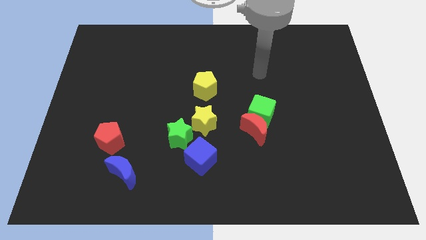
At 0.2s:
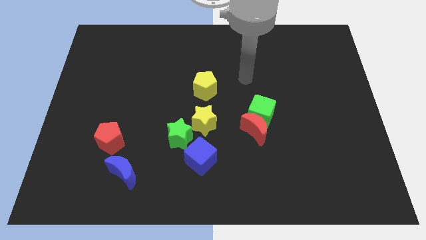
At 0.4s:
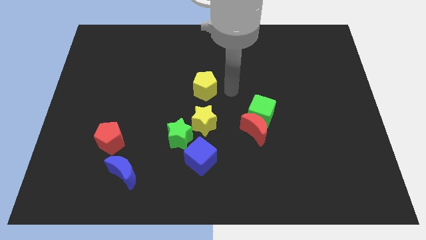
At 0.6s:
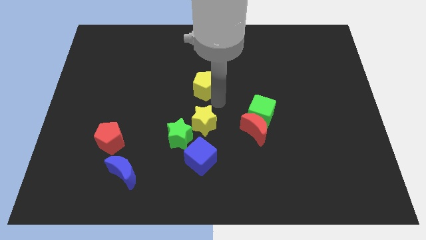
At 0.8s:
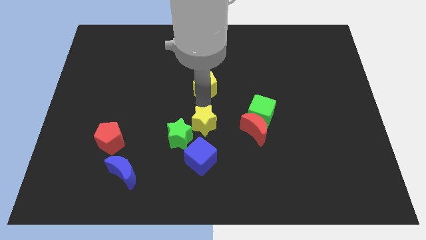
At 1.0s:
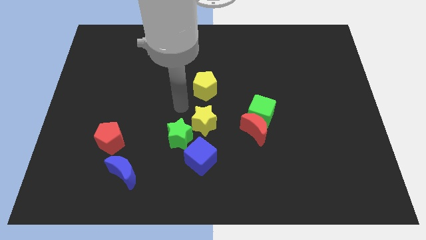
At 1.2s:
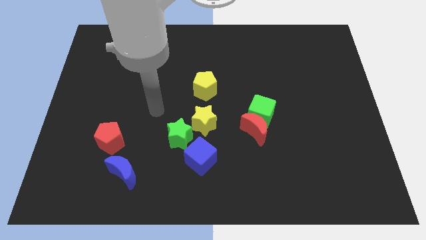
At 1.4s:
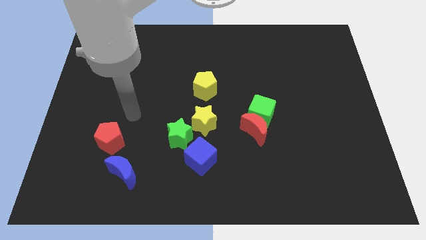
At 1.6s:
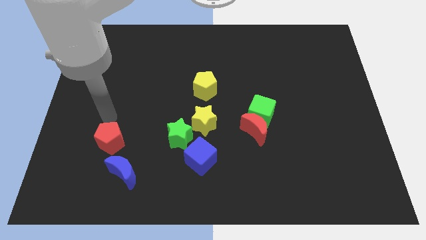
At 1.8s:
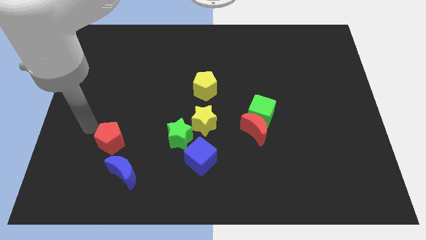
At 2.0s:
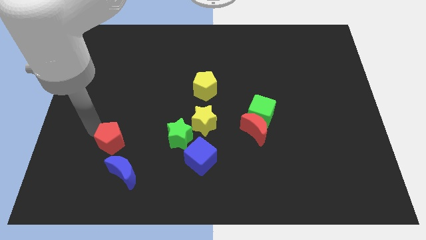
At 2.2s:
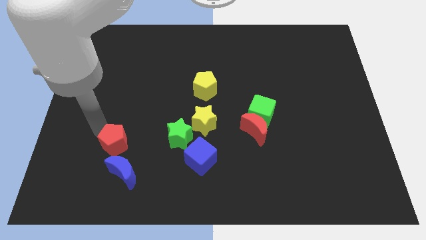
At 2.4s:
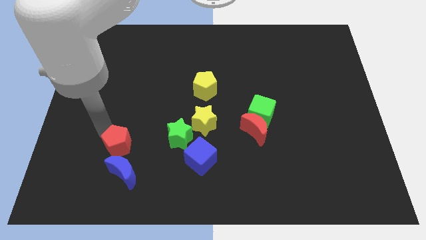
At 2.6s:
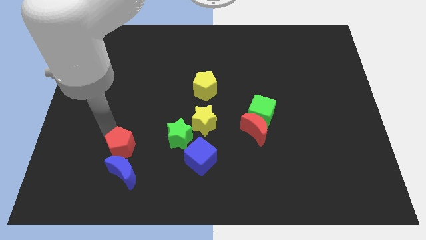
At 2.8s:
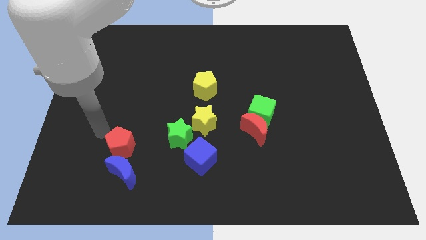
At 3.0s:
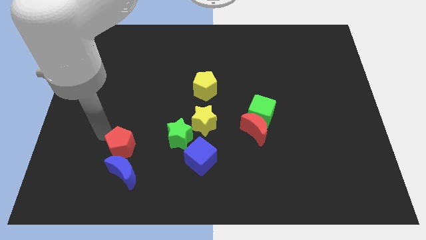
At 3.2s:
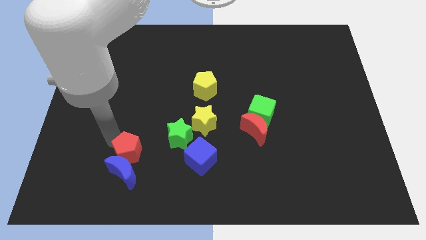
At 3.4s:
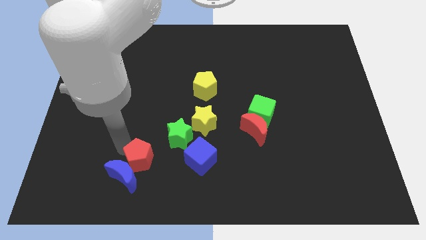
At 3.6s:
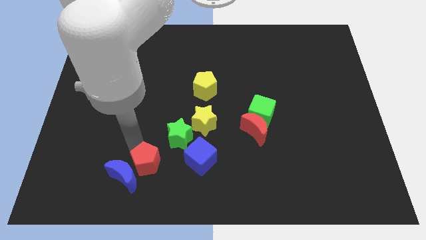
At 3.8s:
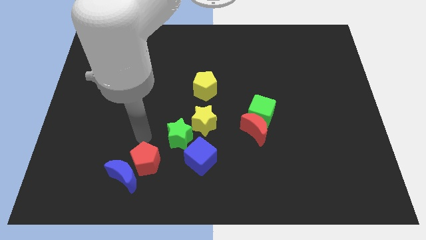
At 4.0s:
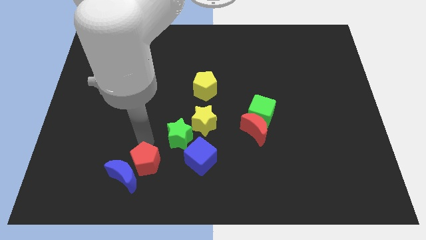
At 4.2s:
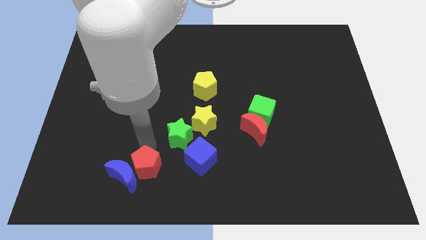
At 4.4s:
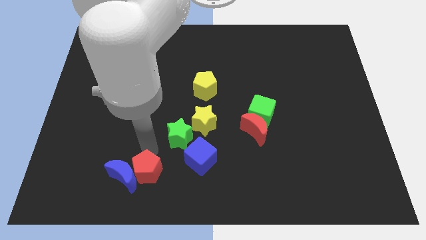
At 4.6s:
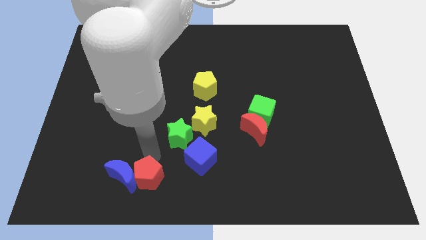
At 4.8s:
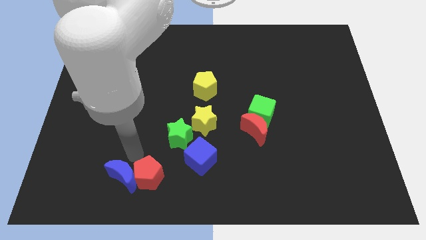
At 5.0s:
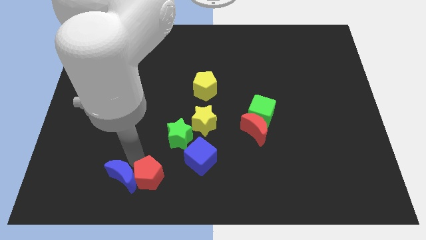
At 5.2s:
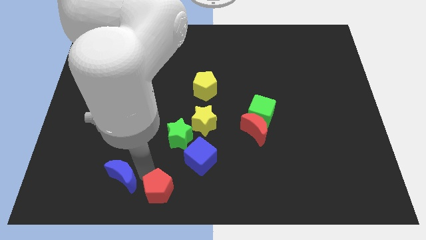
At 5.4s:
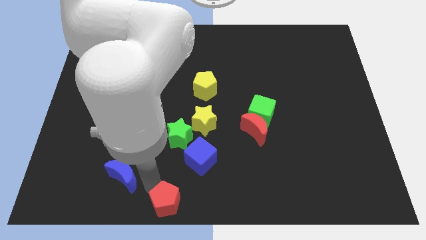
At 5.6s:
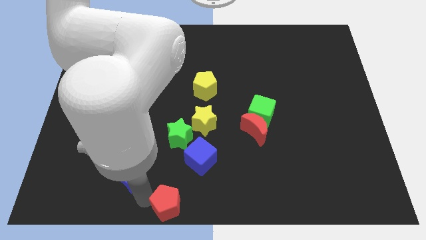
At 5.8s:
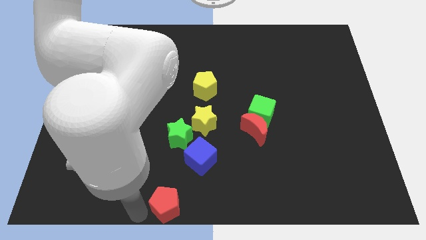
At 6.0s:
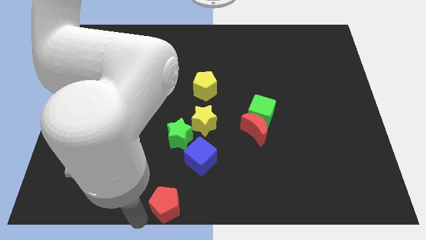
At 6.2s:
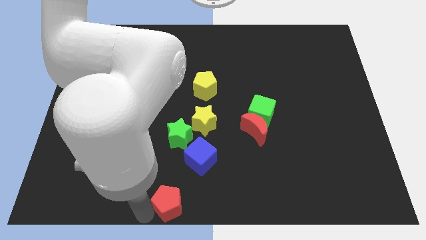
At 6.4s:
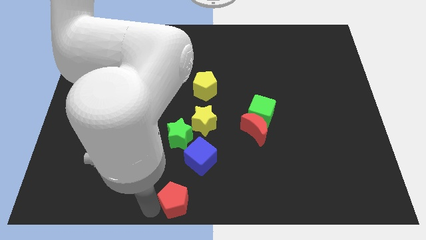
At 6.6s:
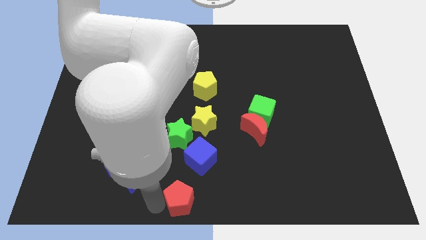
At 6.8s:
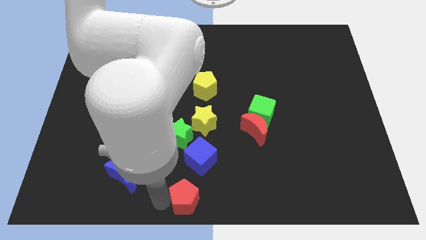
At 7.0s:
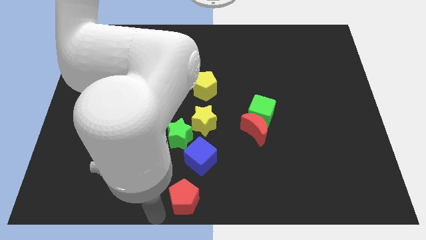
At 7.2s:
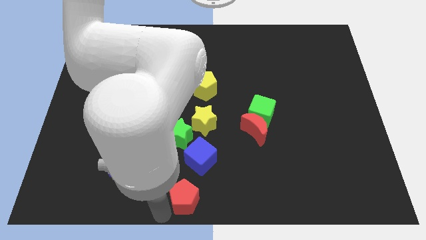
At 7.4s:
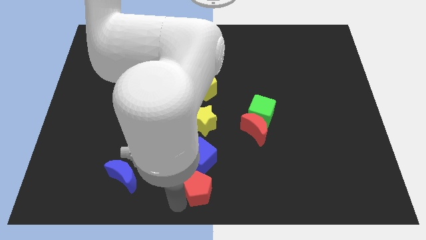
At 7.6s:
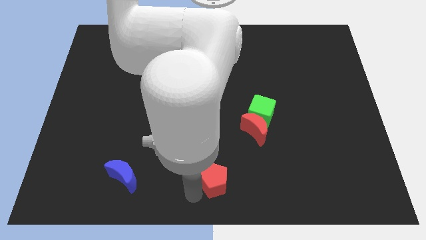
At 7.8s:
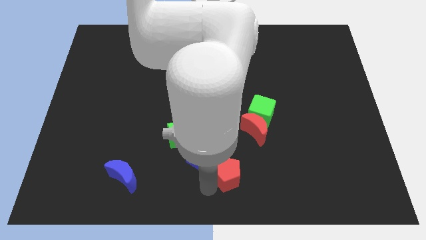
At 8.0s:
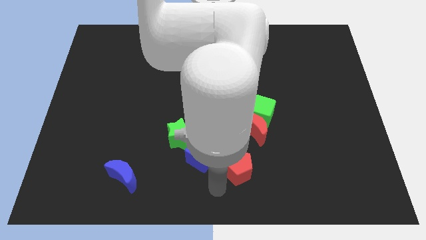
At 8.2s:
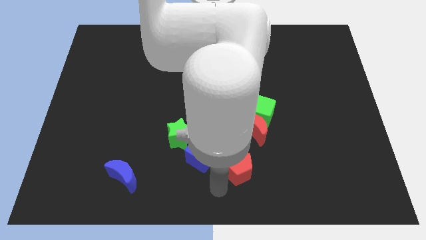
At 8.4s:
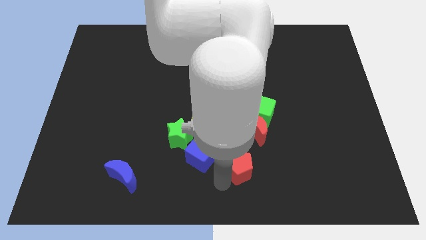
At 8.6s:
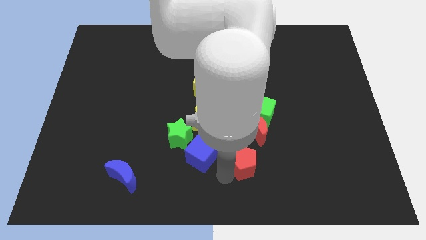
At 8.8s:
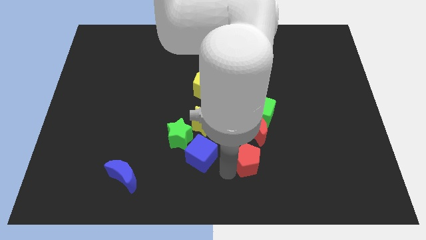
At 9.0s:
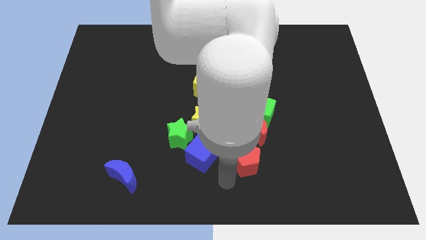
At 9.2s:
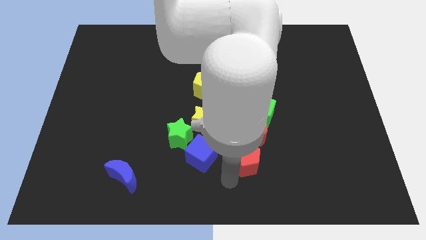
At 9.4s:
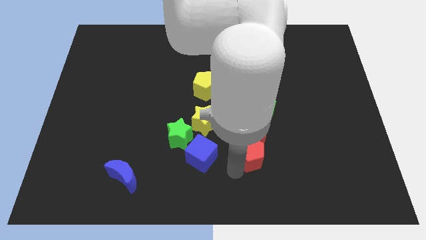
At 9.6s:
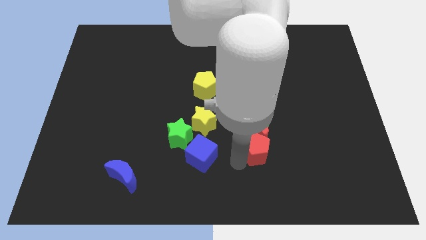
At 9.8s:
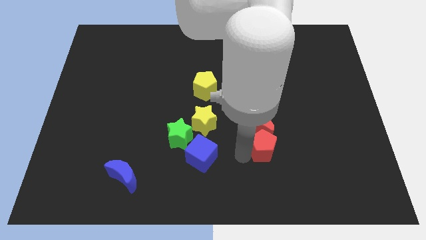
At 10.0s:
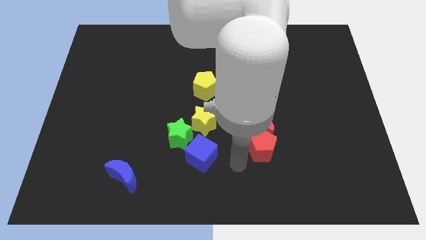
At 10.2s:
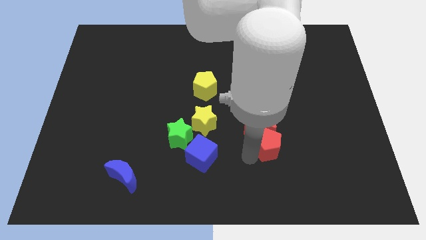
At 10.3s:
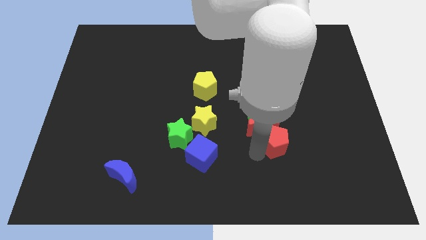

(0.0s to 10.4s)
push the red pentagon diagonally down and to the right of the green cube

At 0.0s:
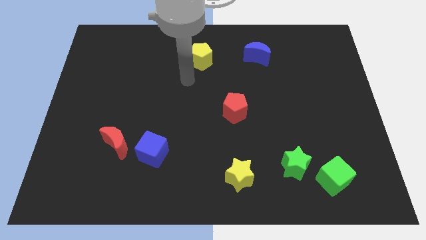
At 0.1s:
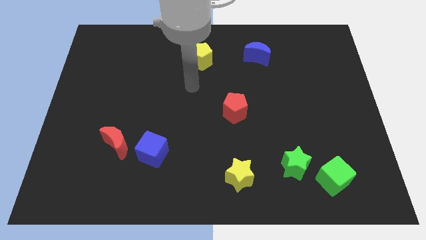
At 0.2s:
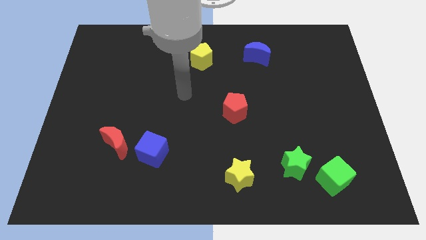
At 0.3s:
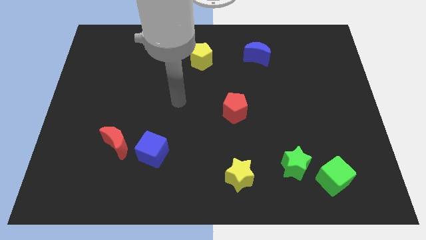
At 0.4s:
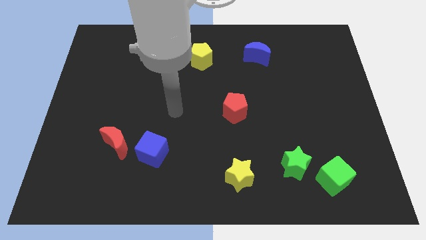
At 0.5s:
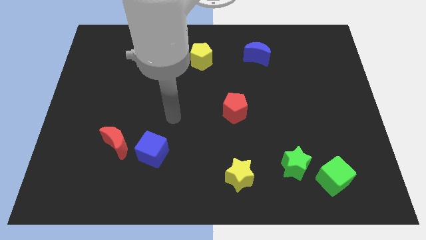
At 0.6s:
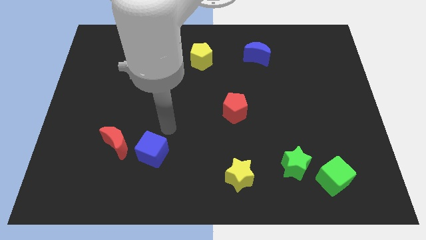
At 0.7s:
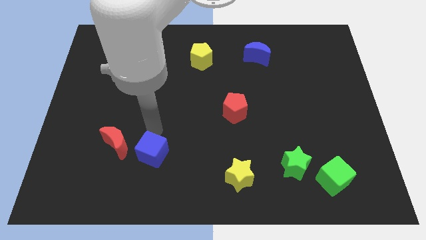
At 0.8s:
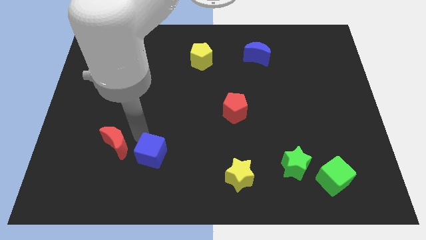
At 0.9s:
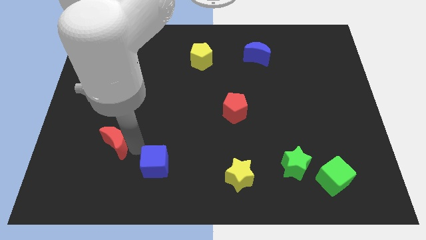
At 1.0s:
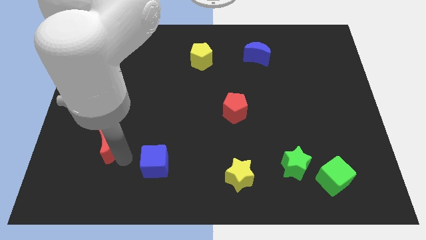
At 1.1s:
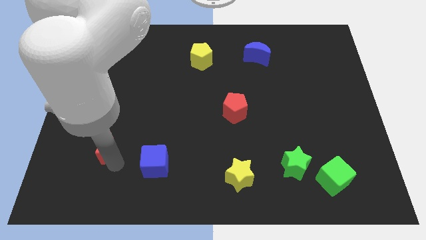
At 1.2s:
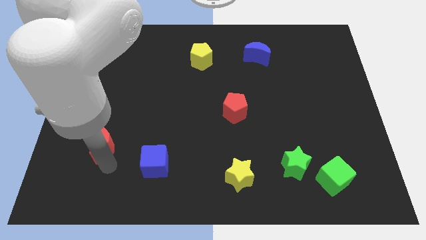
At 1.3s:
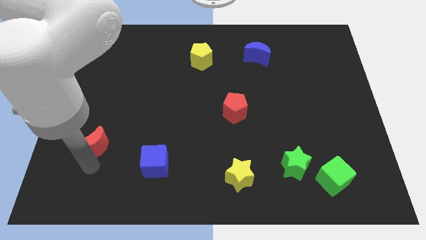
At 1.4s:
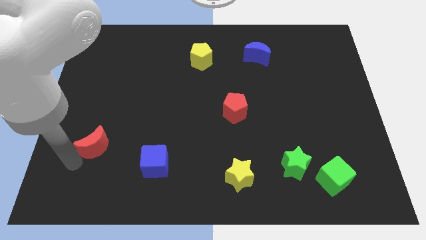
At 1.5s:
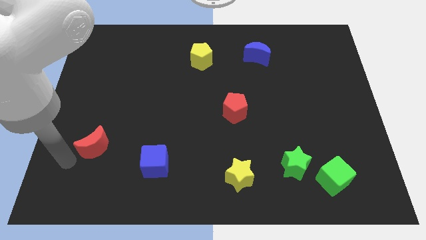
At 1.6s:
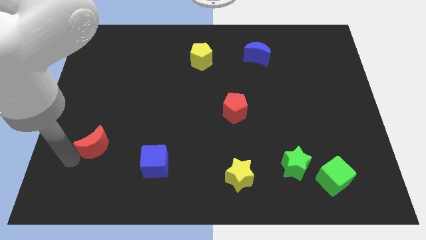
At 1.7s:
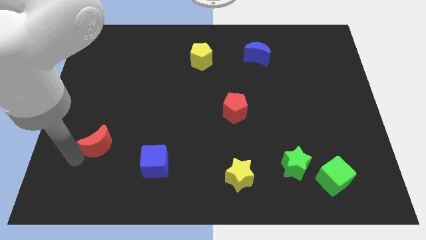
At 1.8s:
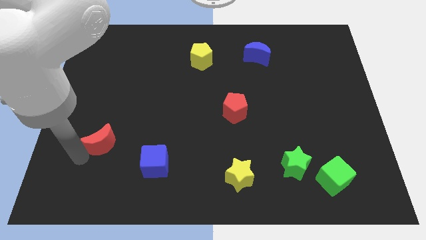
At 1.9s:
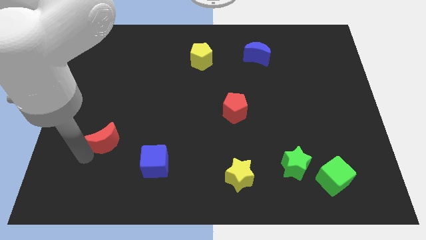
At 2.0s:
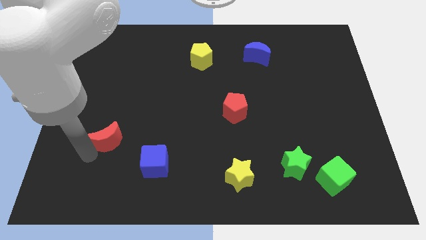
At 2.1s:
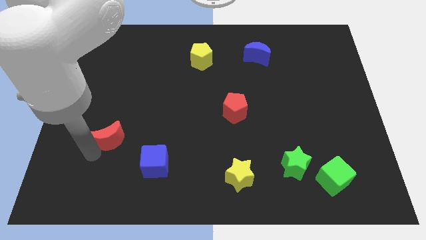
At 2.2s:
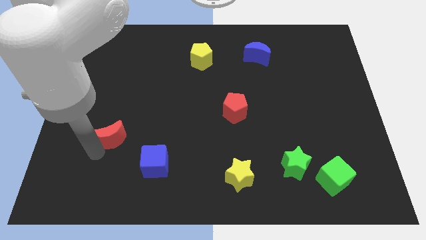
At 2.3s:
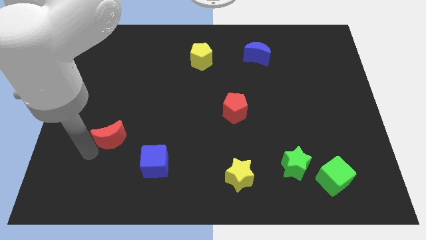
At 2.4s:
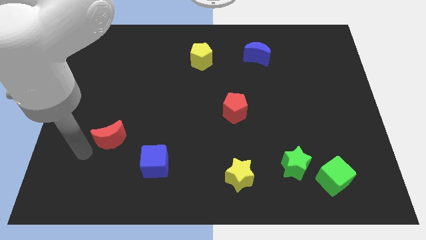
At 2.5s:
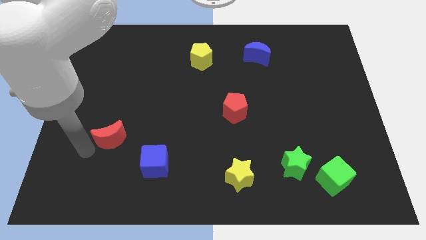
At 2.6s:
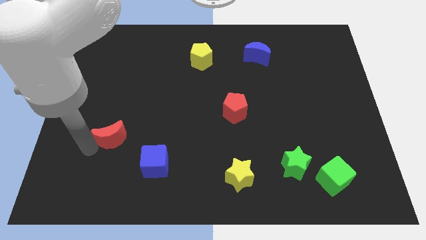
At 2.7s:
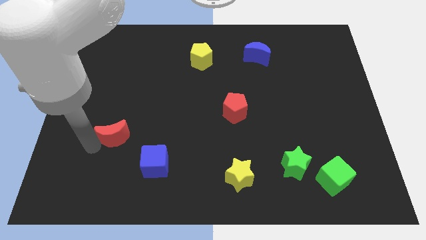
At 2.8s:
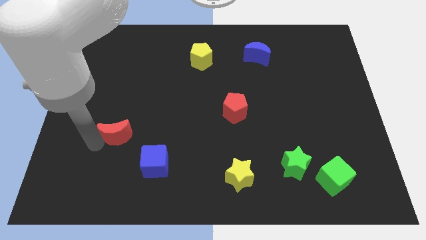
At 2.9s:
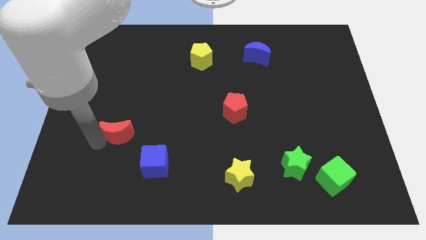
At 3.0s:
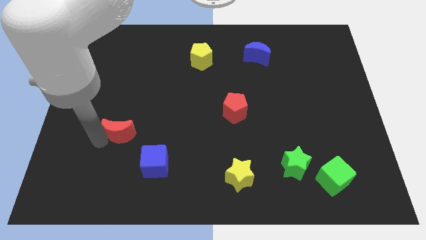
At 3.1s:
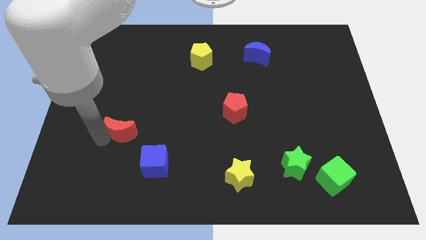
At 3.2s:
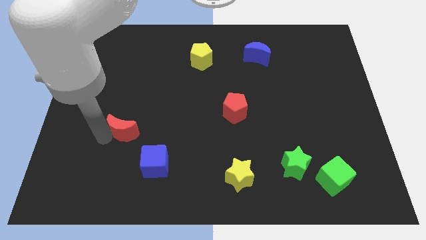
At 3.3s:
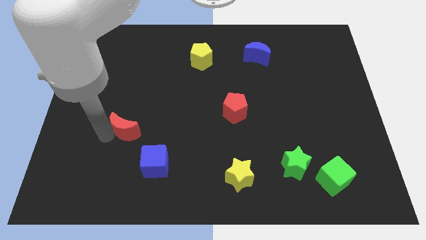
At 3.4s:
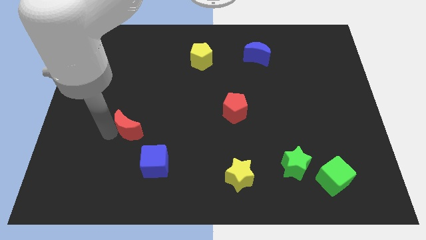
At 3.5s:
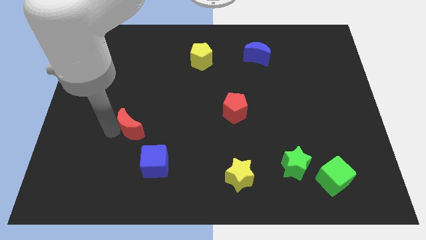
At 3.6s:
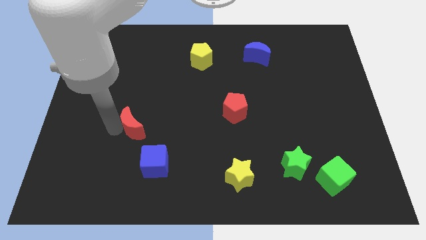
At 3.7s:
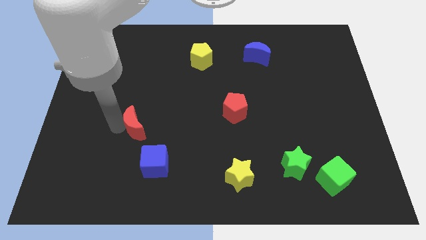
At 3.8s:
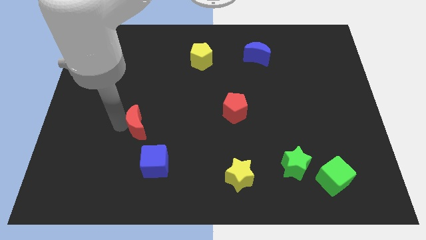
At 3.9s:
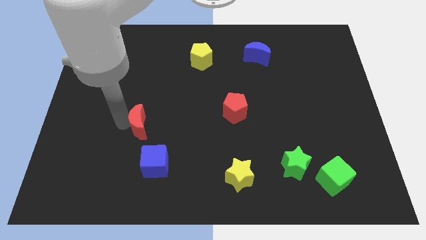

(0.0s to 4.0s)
put the red moon to the top of the blue cube
